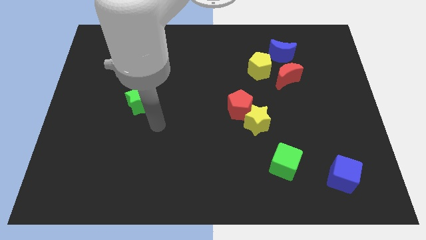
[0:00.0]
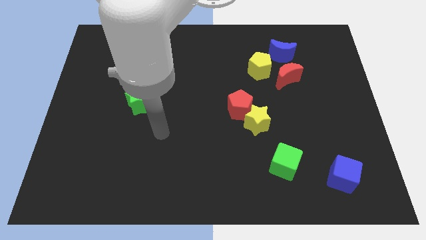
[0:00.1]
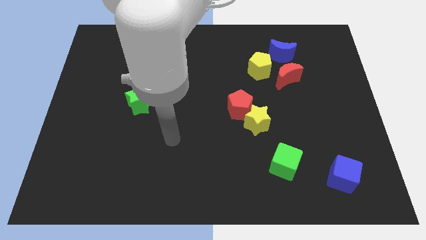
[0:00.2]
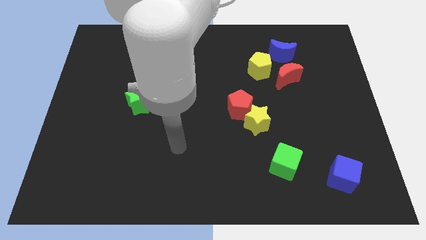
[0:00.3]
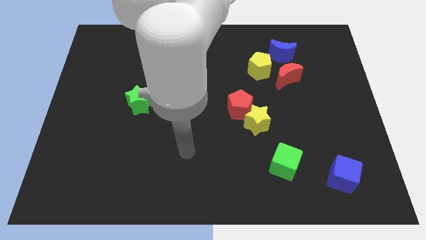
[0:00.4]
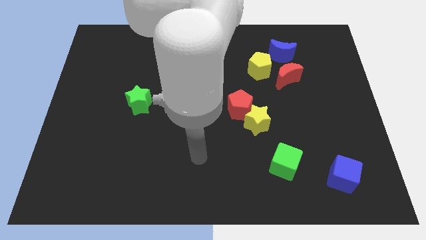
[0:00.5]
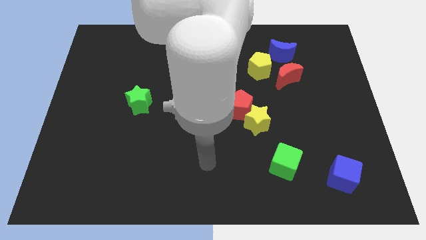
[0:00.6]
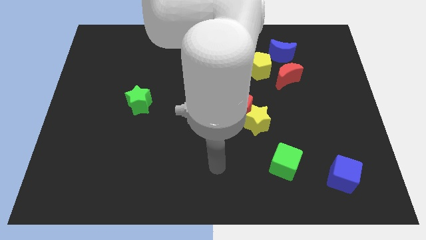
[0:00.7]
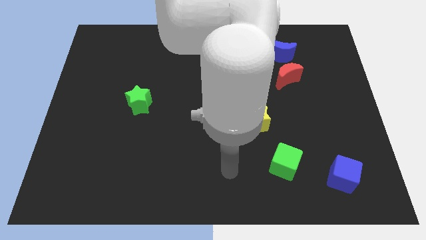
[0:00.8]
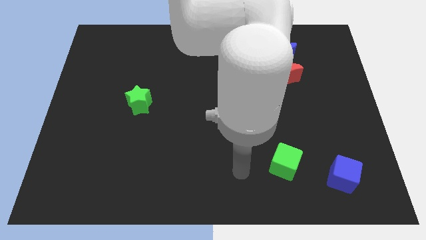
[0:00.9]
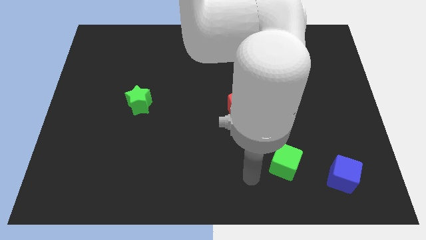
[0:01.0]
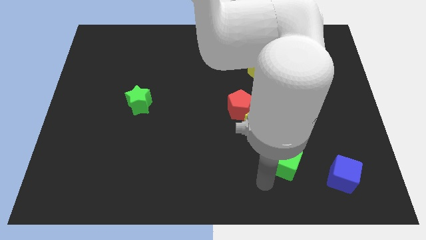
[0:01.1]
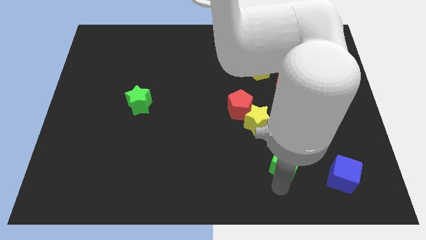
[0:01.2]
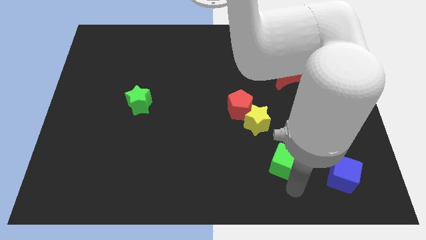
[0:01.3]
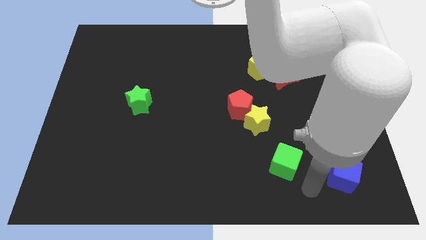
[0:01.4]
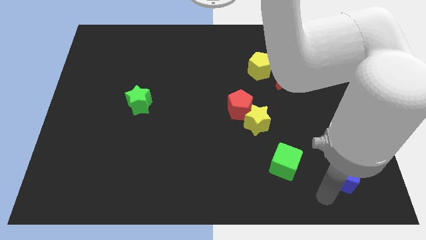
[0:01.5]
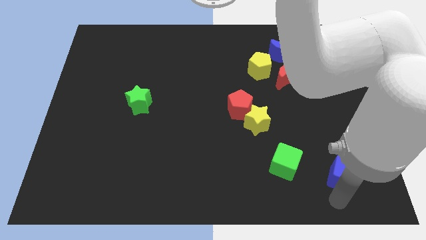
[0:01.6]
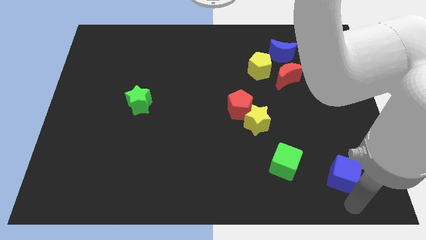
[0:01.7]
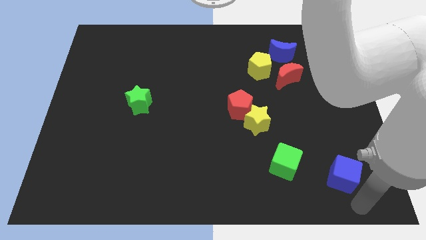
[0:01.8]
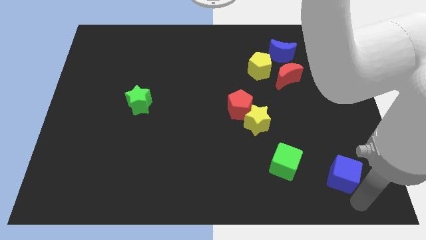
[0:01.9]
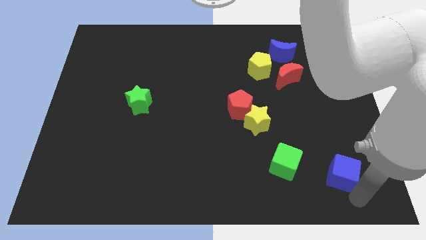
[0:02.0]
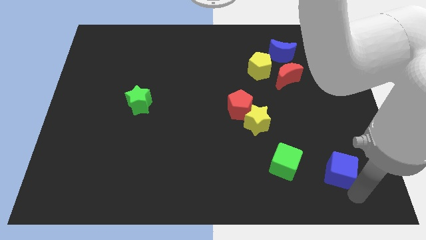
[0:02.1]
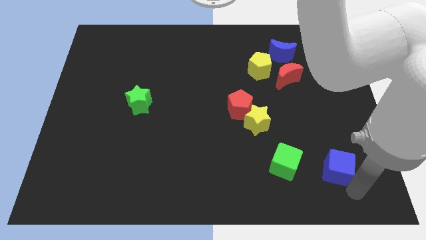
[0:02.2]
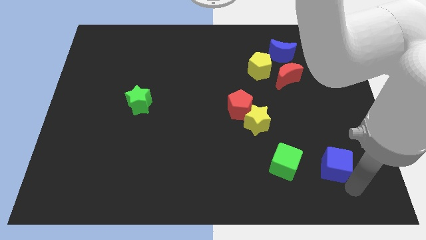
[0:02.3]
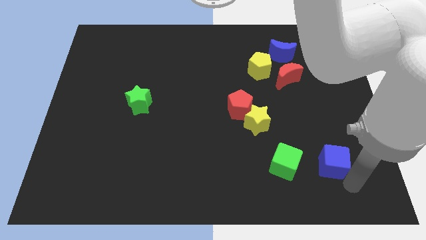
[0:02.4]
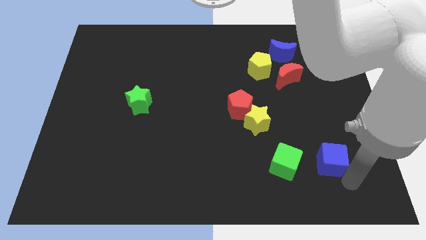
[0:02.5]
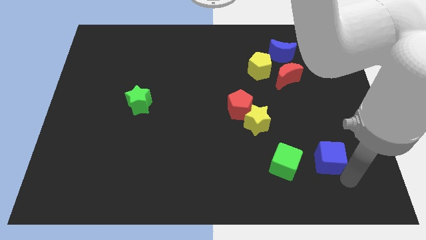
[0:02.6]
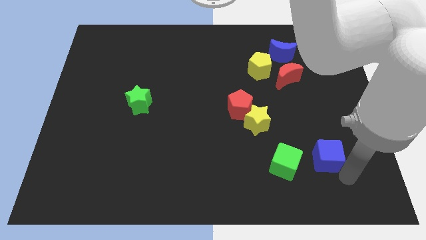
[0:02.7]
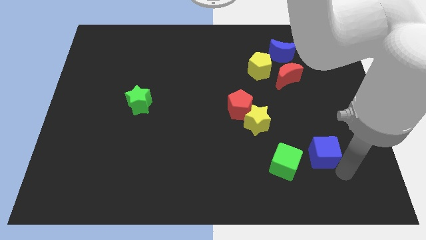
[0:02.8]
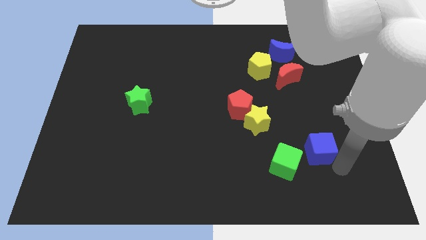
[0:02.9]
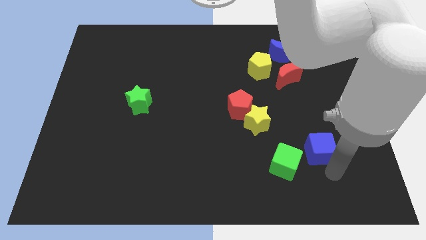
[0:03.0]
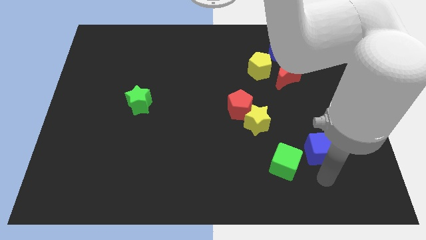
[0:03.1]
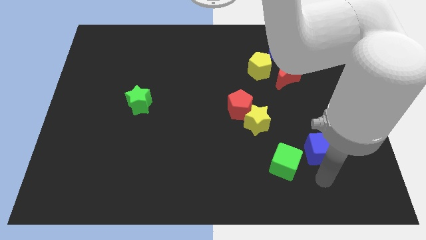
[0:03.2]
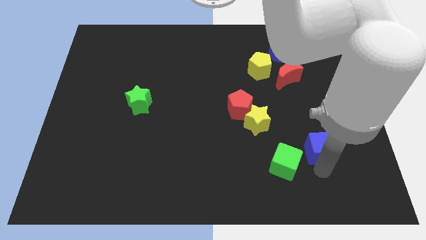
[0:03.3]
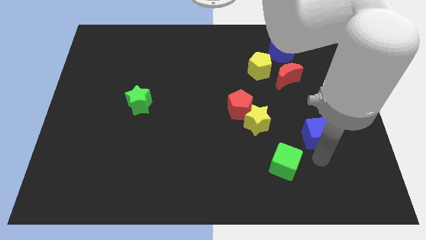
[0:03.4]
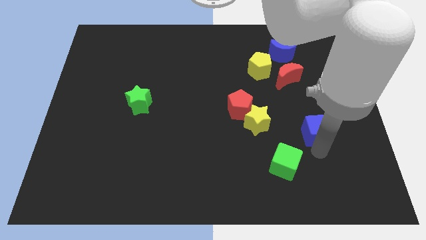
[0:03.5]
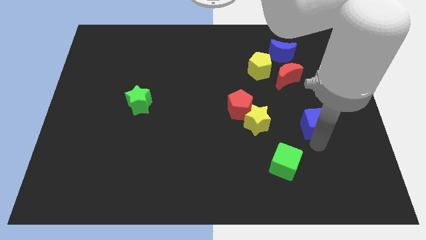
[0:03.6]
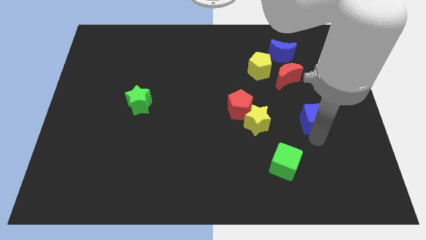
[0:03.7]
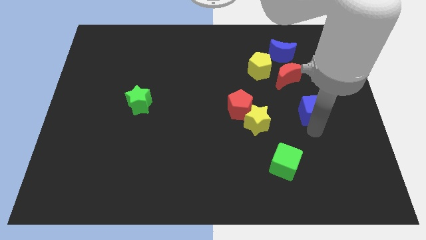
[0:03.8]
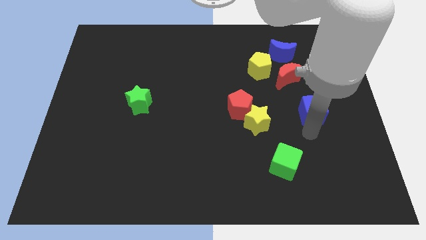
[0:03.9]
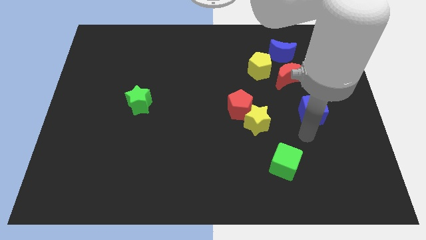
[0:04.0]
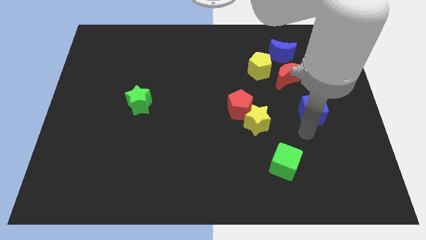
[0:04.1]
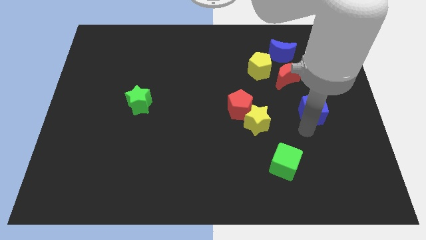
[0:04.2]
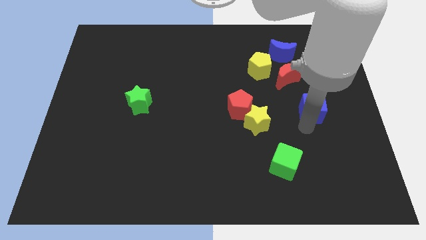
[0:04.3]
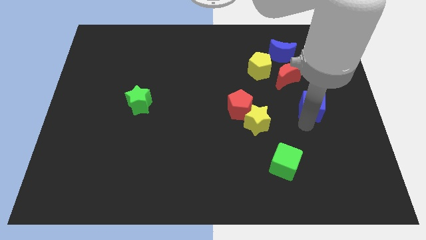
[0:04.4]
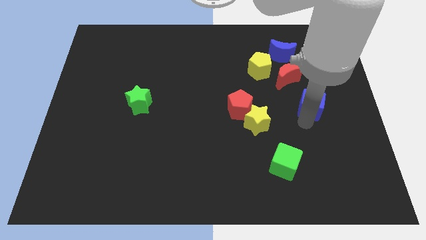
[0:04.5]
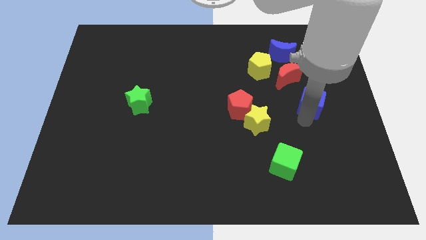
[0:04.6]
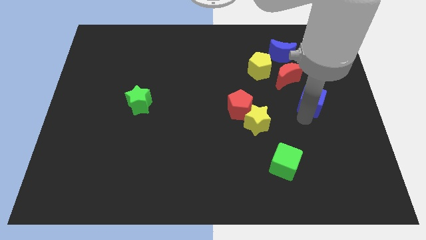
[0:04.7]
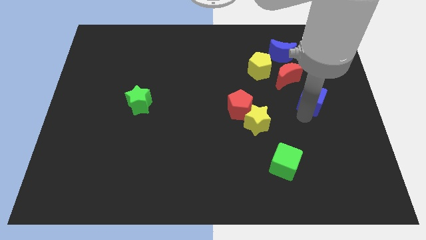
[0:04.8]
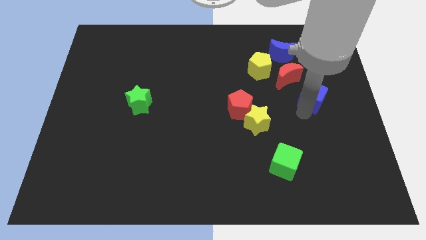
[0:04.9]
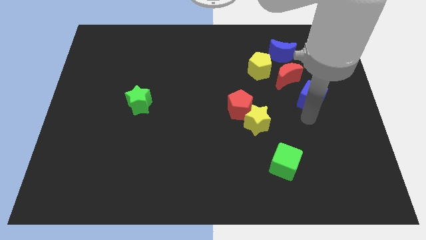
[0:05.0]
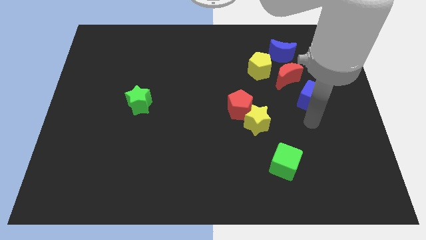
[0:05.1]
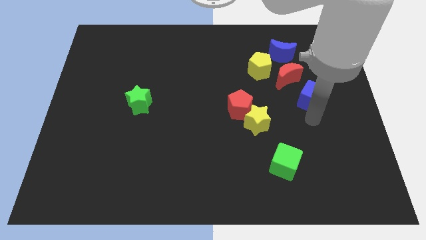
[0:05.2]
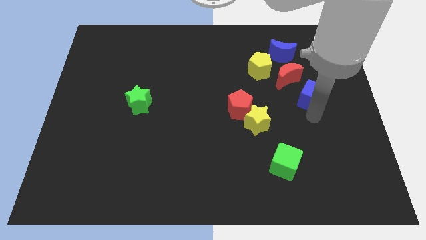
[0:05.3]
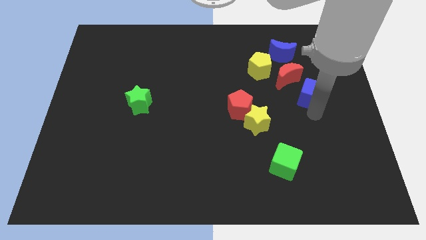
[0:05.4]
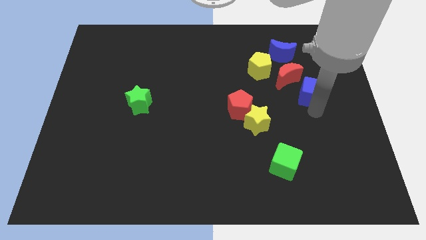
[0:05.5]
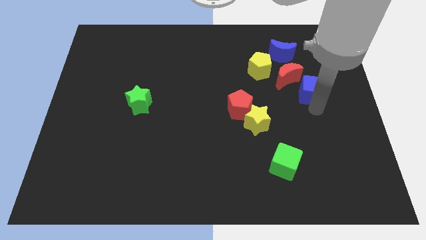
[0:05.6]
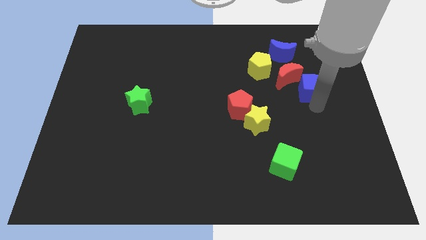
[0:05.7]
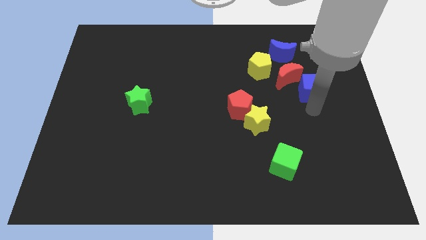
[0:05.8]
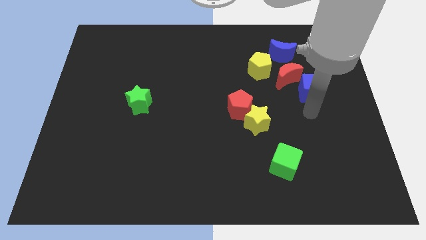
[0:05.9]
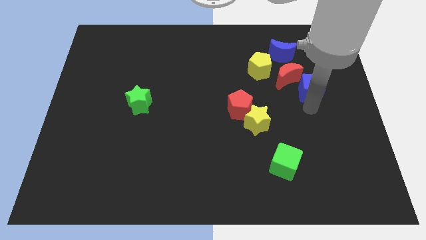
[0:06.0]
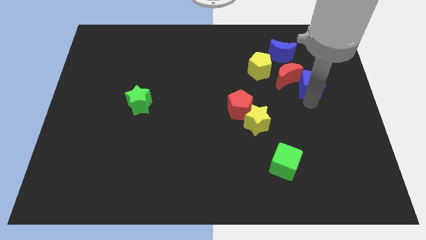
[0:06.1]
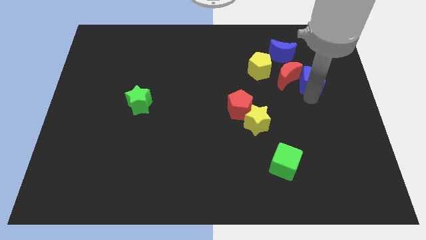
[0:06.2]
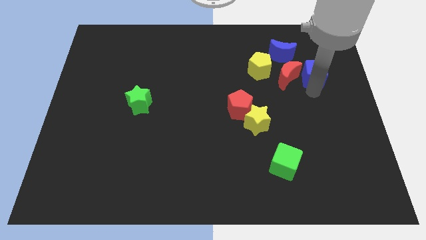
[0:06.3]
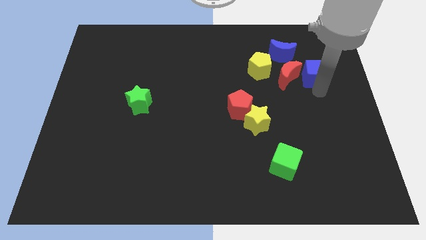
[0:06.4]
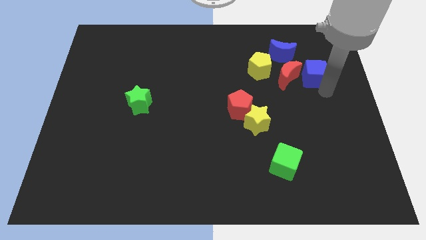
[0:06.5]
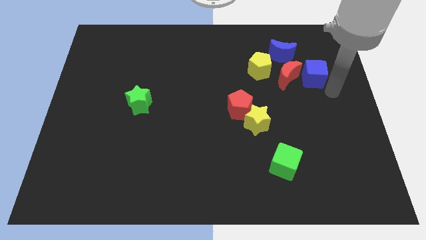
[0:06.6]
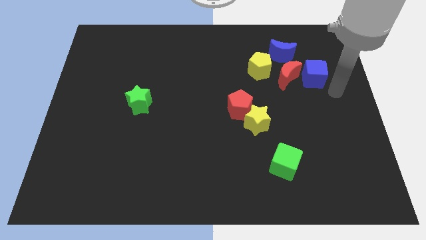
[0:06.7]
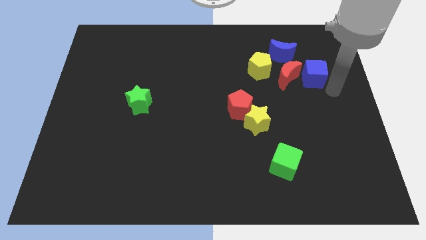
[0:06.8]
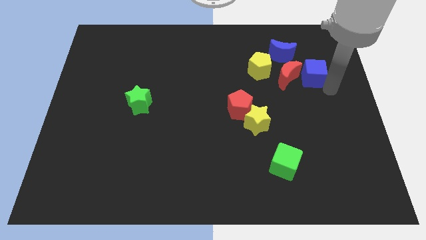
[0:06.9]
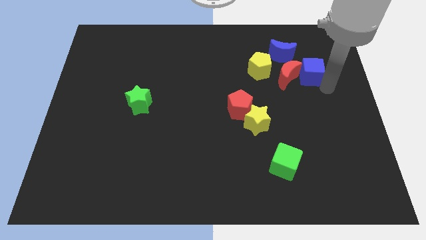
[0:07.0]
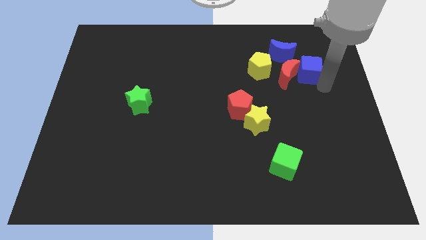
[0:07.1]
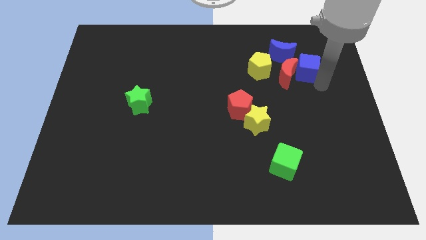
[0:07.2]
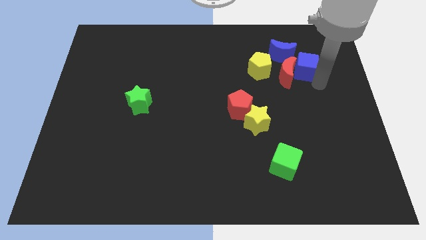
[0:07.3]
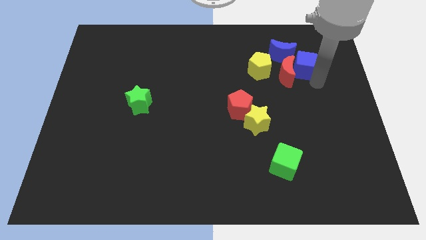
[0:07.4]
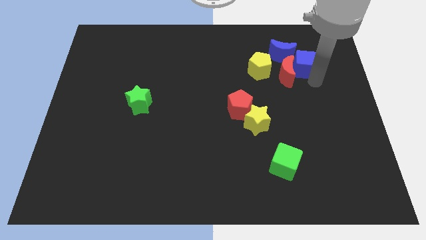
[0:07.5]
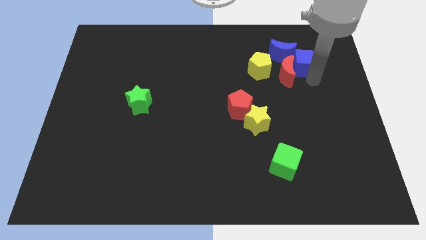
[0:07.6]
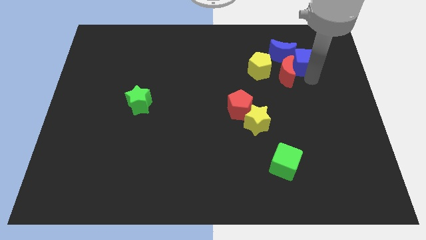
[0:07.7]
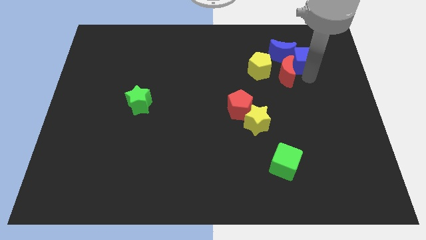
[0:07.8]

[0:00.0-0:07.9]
put the blue cube next to the blue moon

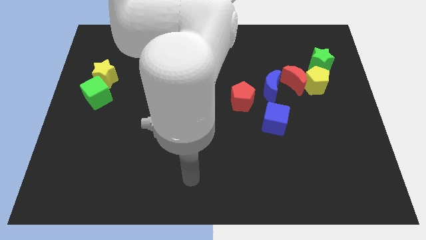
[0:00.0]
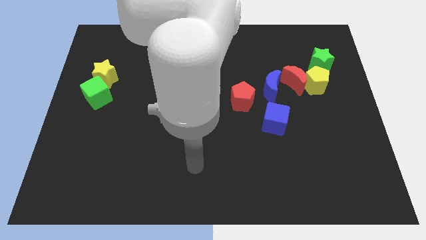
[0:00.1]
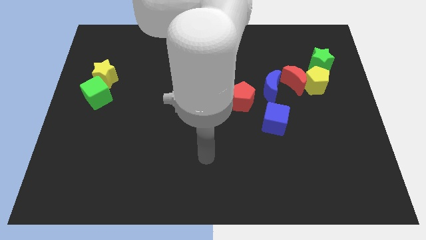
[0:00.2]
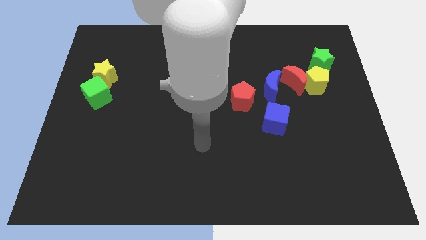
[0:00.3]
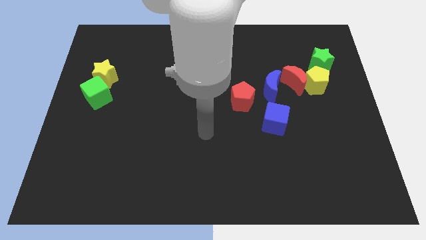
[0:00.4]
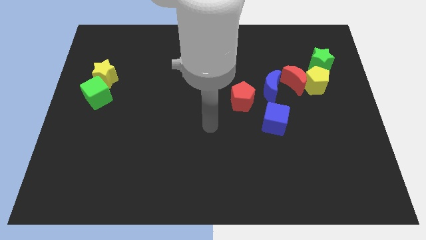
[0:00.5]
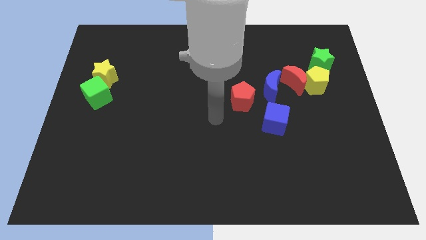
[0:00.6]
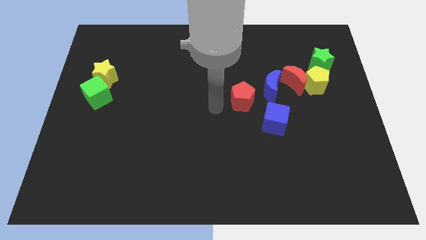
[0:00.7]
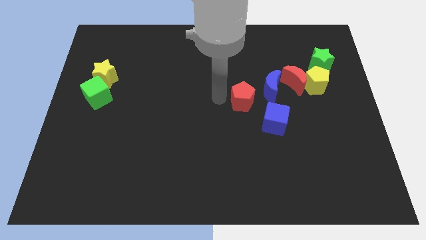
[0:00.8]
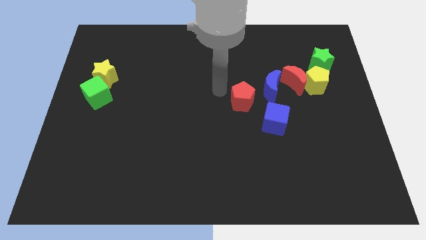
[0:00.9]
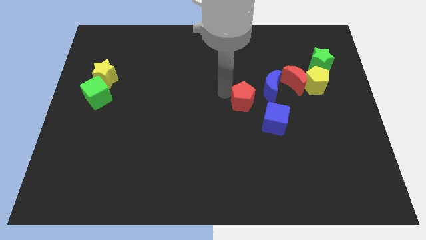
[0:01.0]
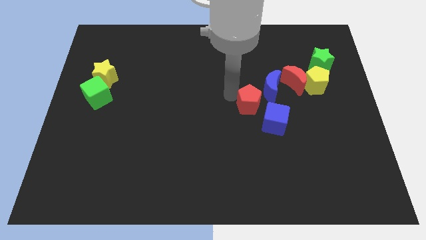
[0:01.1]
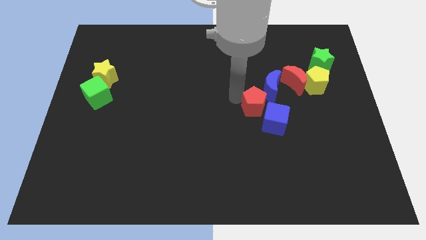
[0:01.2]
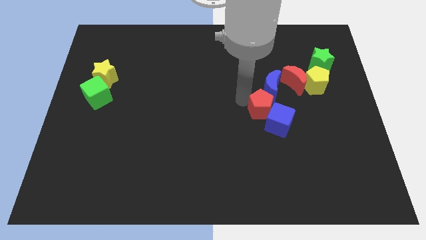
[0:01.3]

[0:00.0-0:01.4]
push the red pentagon towards the blue cube
